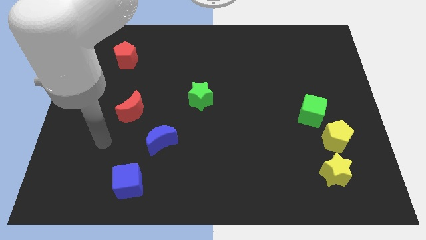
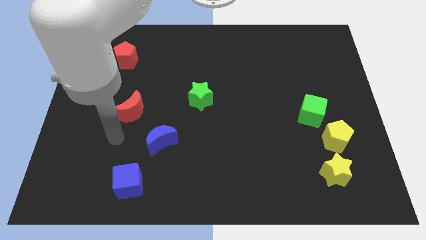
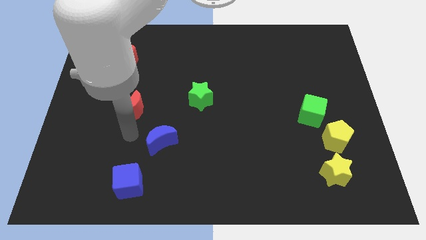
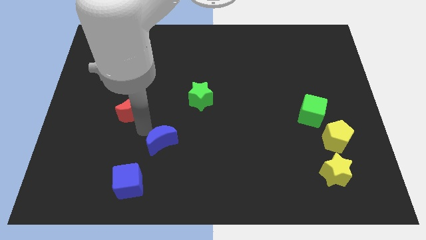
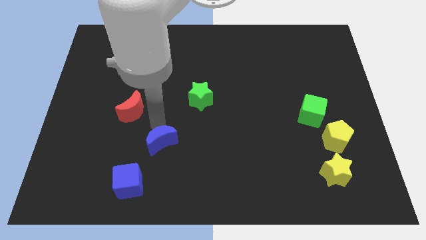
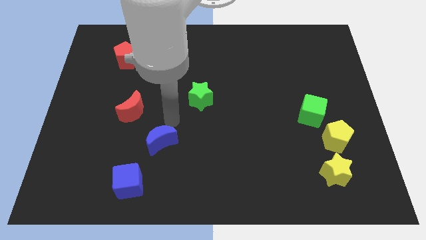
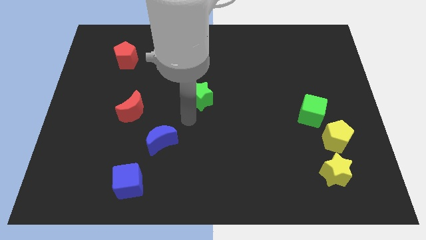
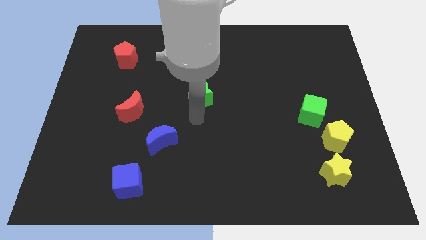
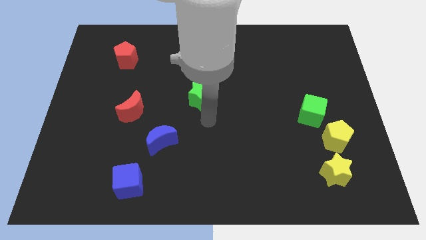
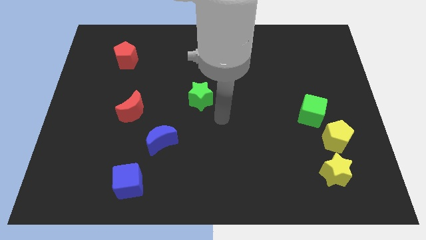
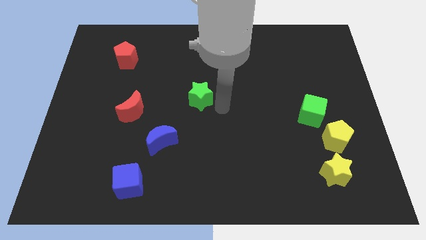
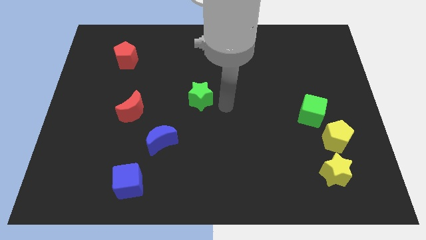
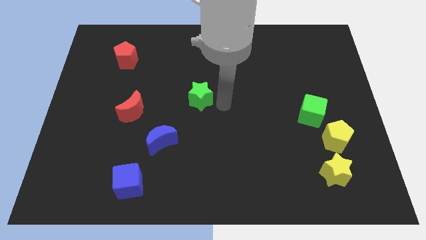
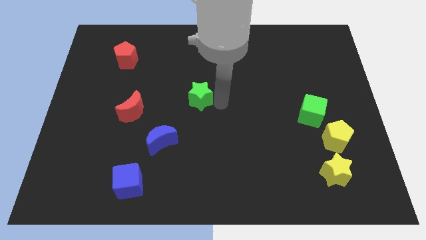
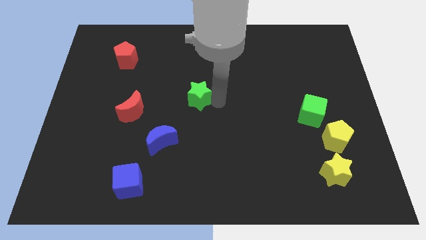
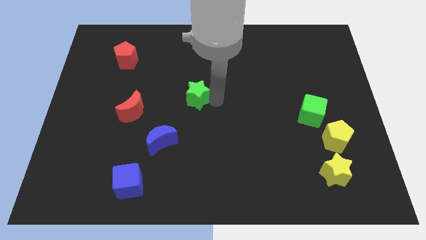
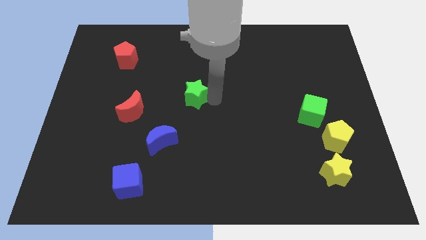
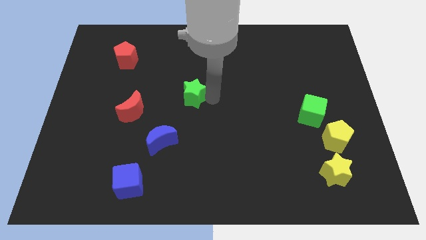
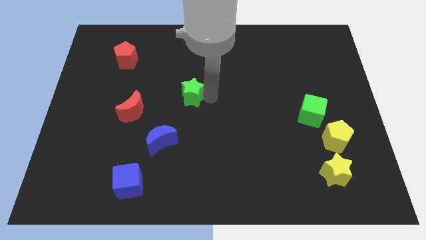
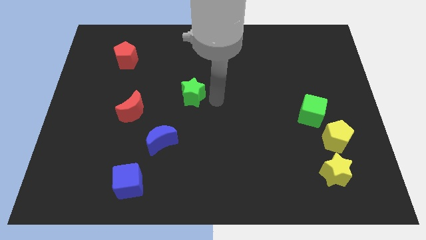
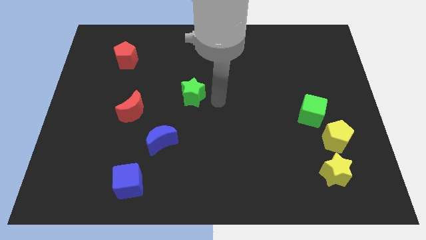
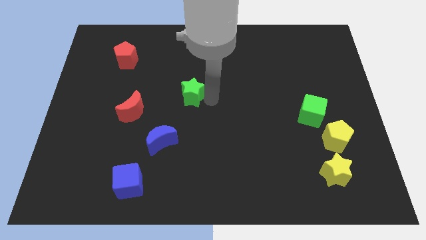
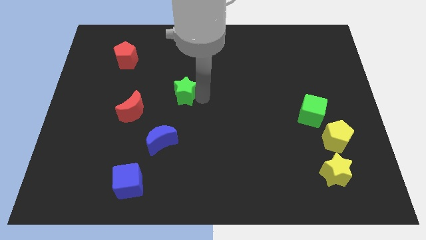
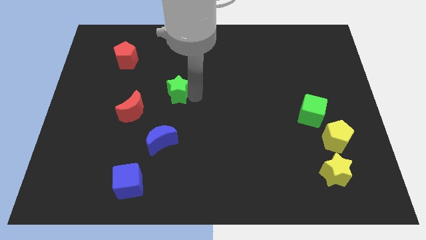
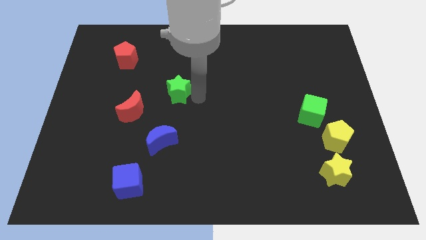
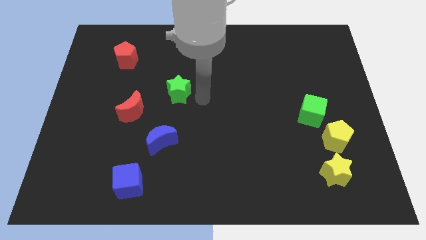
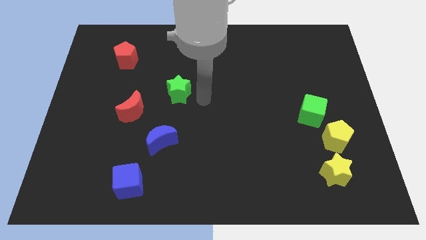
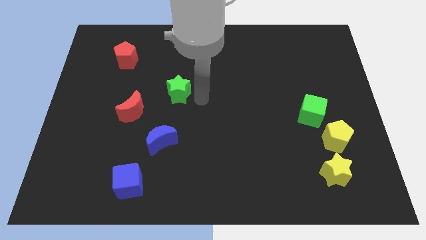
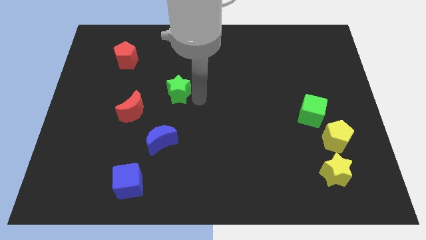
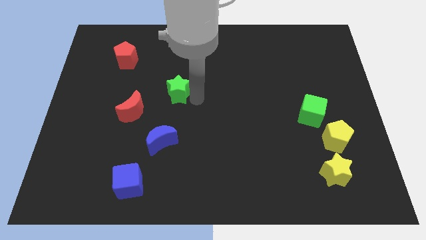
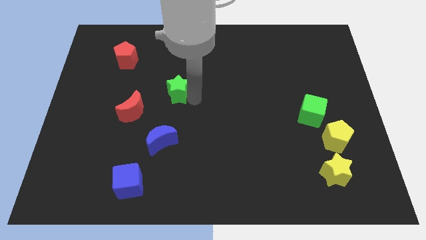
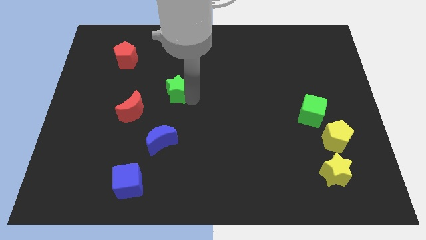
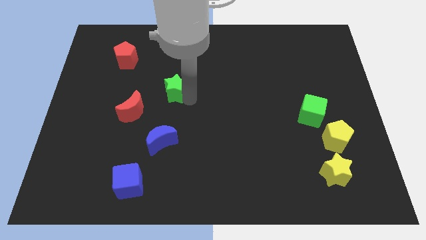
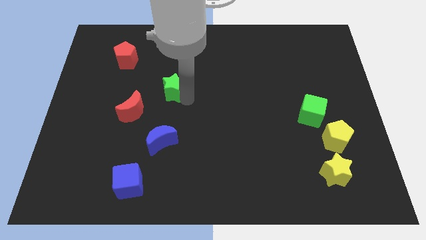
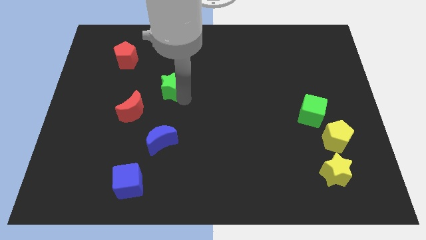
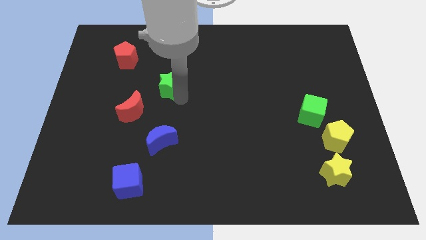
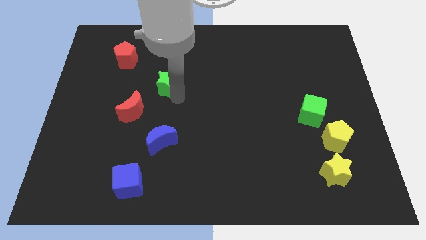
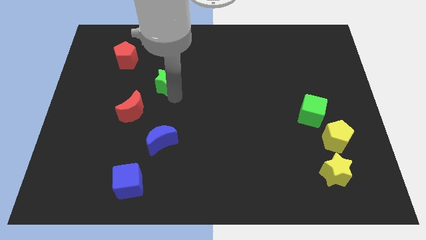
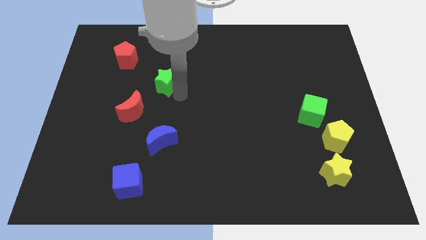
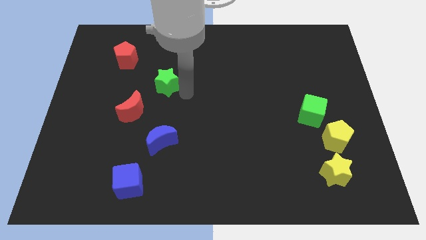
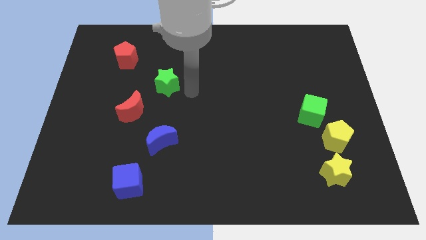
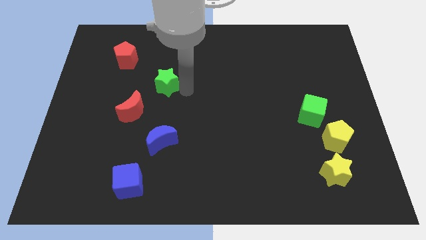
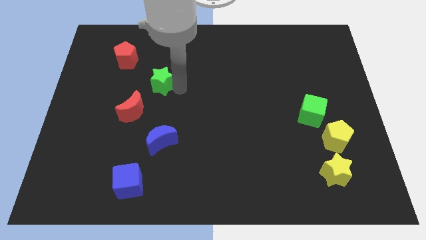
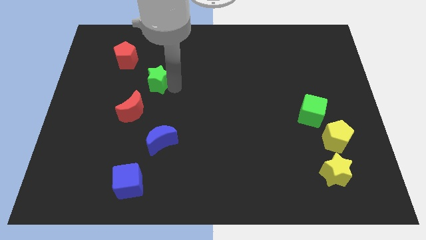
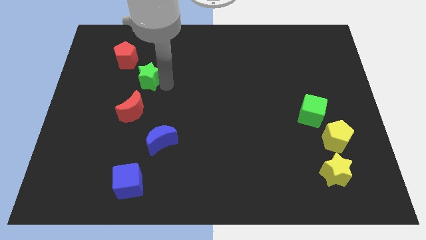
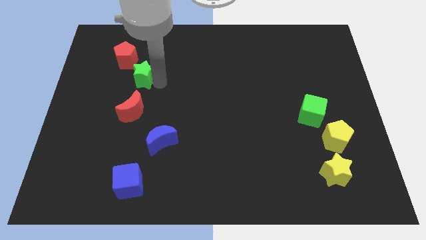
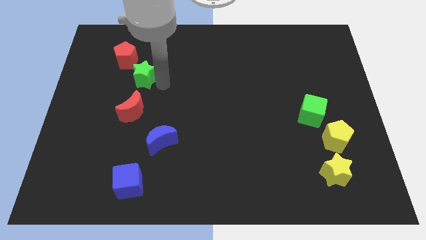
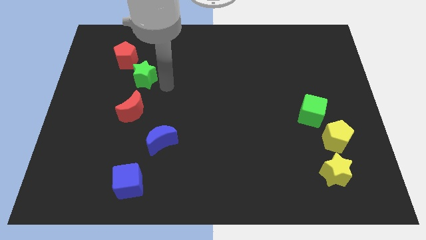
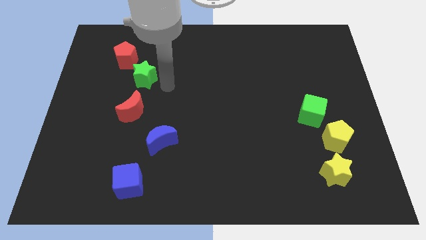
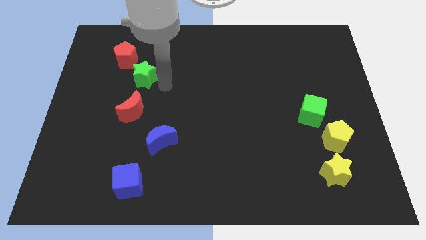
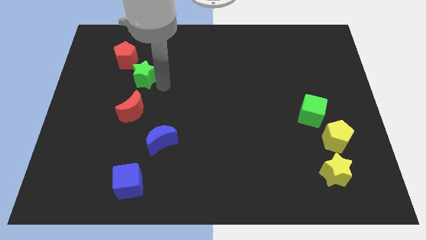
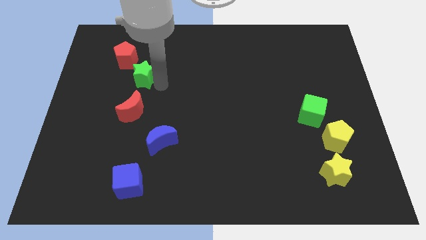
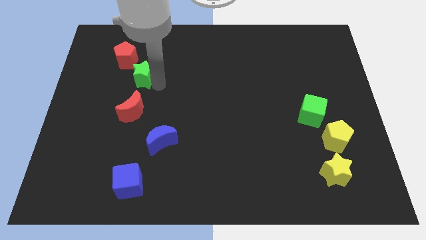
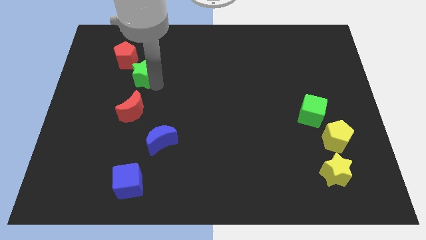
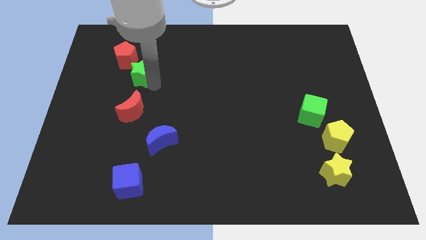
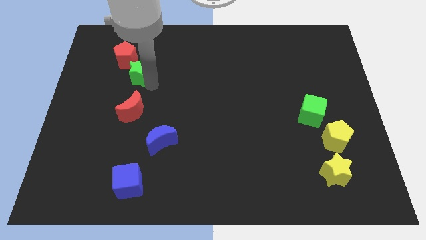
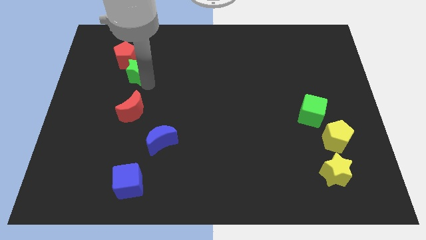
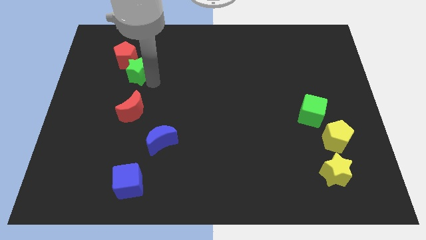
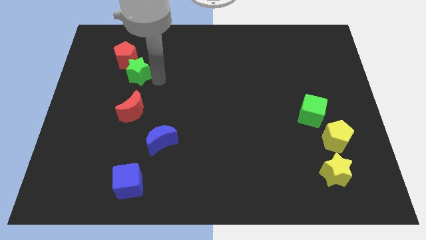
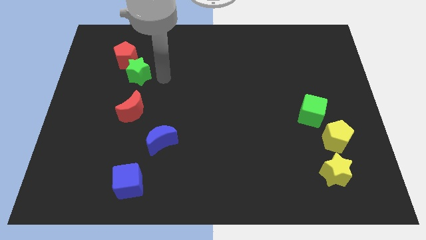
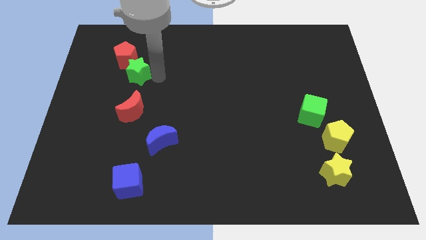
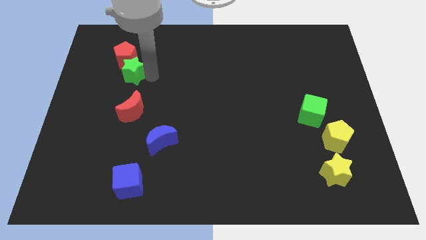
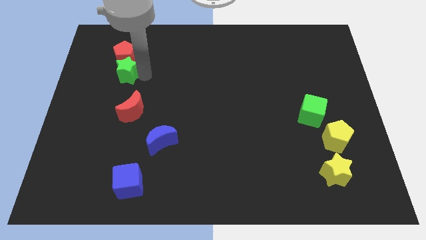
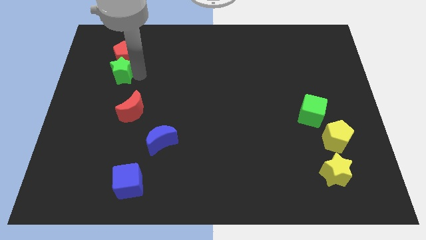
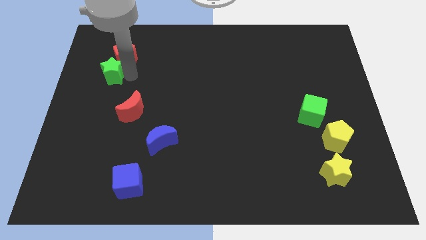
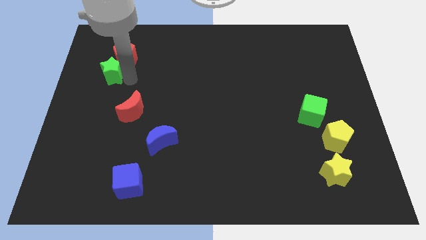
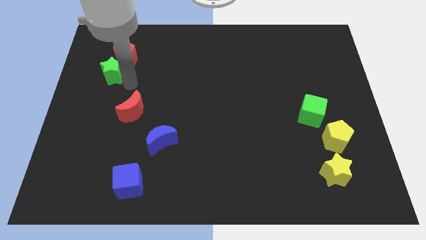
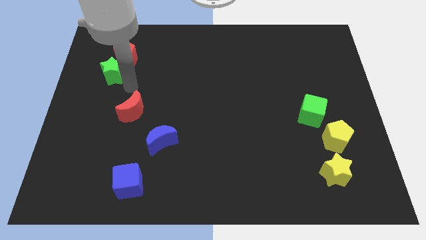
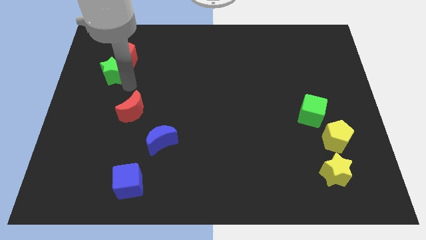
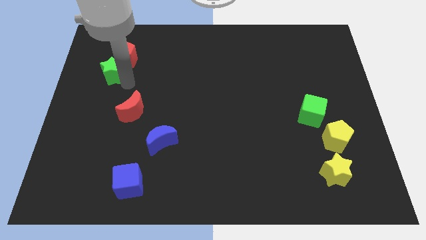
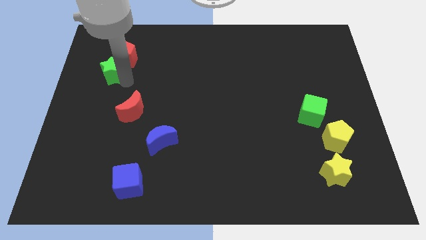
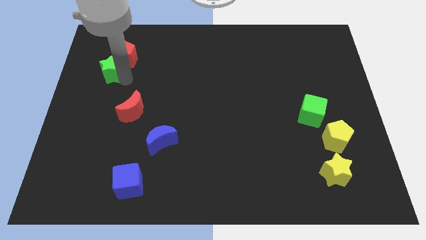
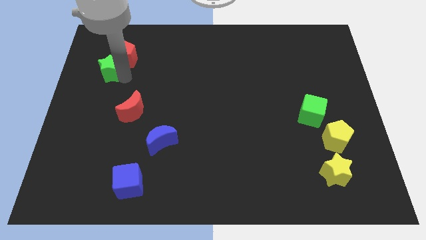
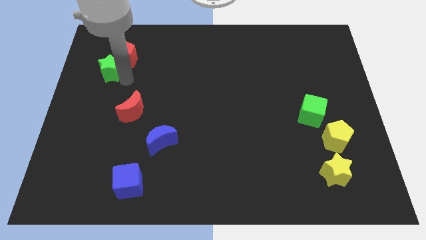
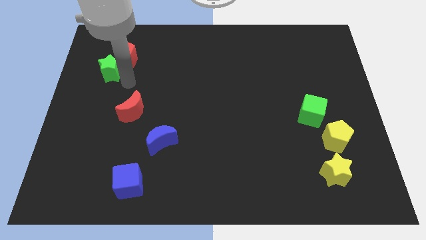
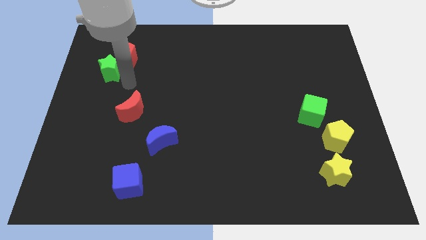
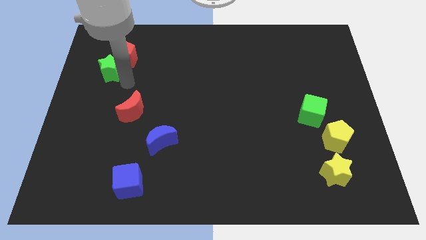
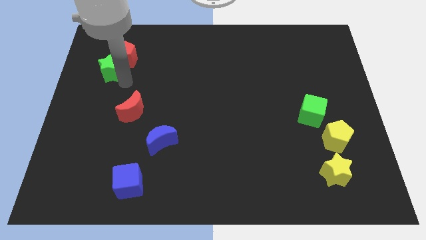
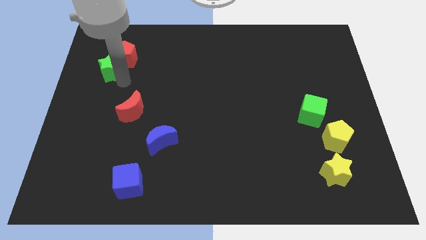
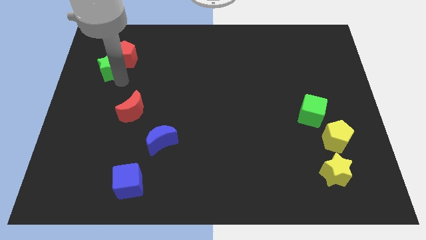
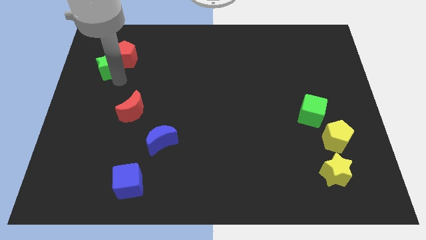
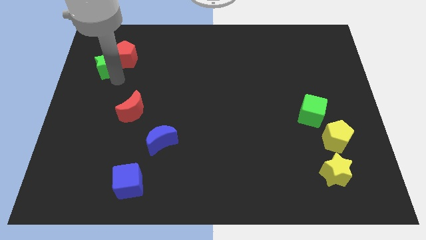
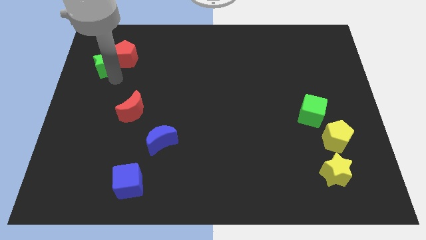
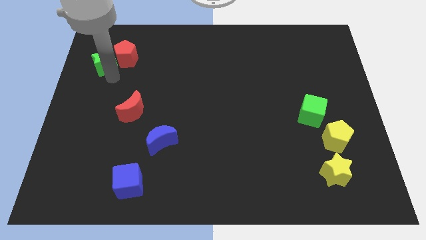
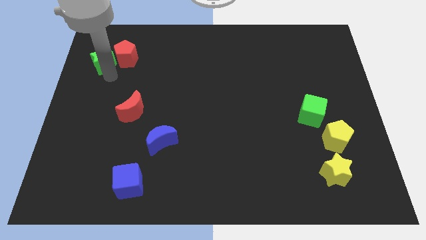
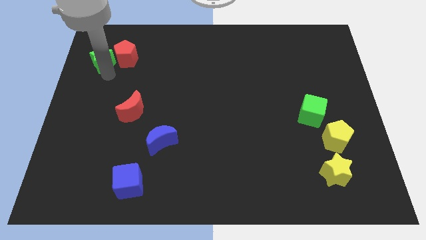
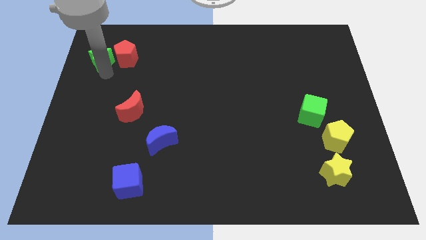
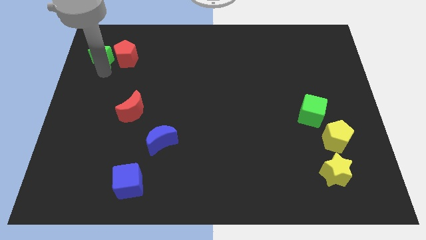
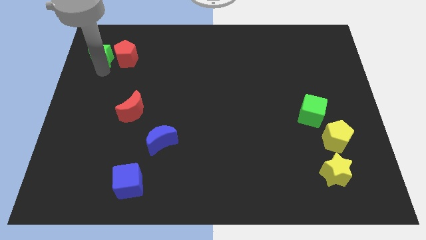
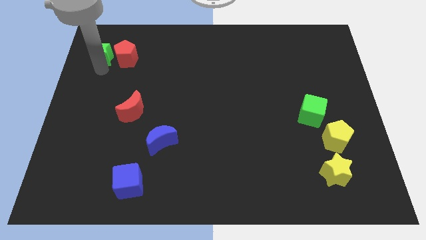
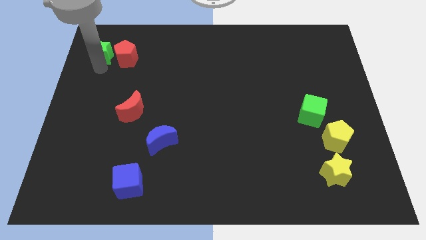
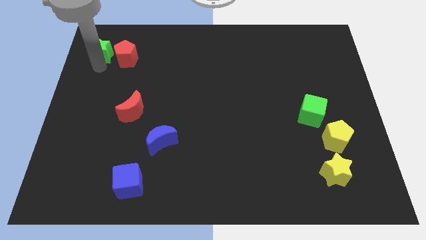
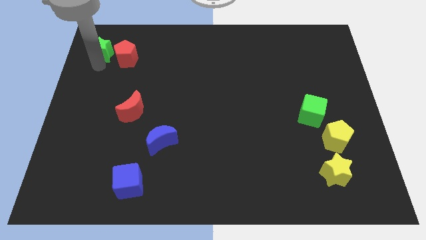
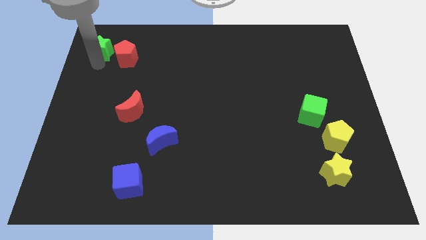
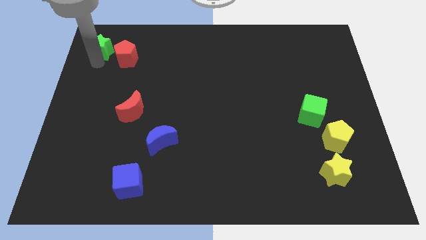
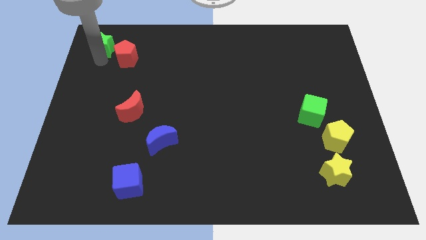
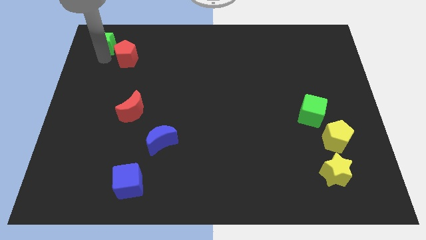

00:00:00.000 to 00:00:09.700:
push the green star to the top left
